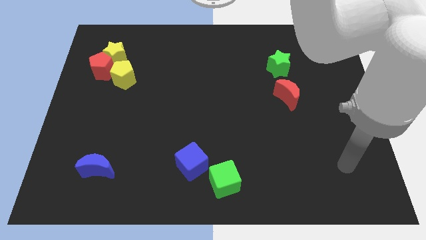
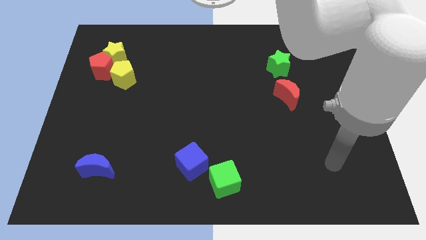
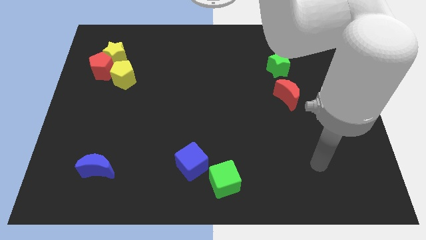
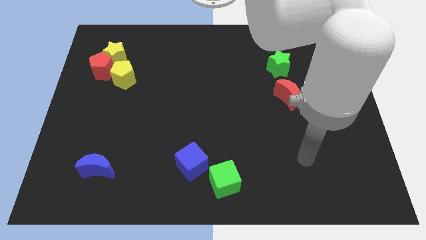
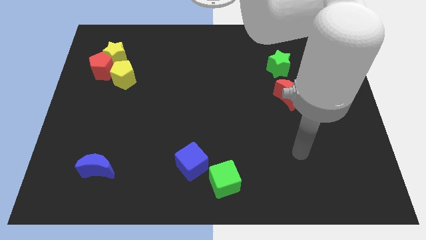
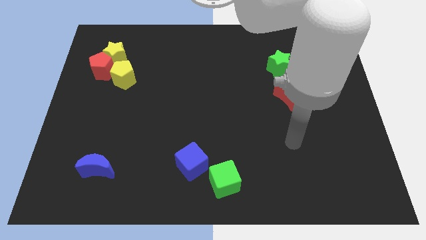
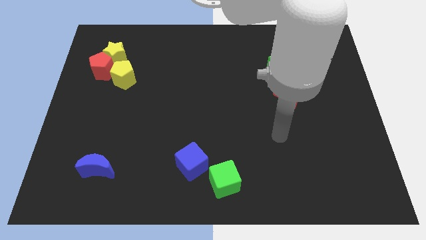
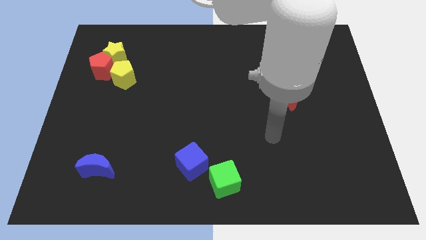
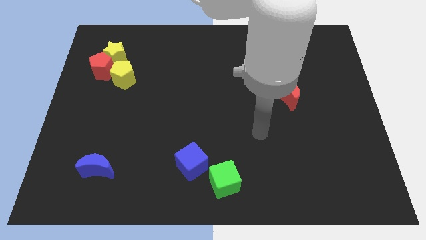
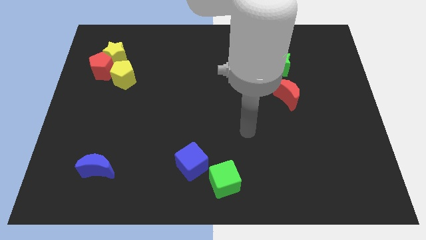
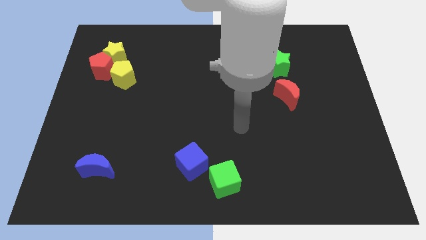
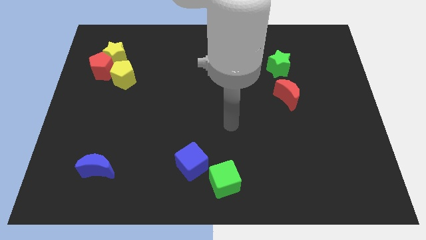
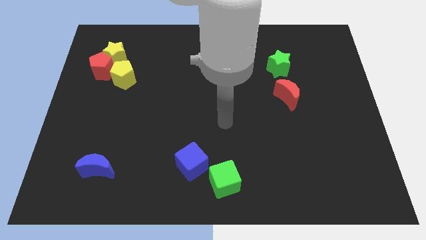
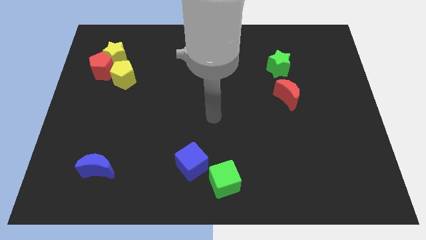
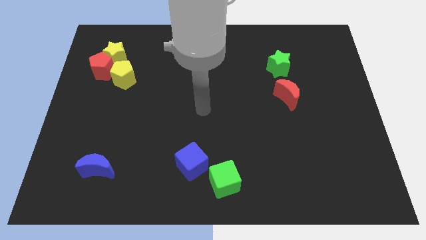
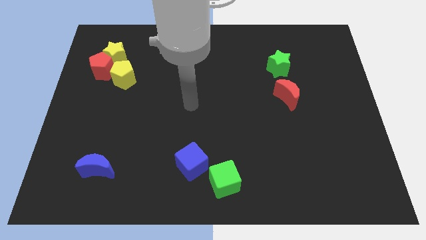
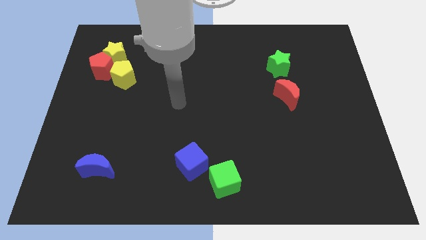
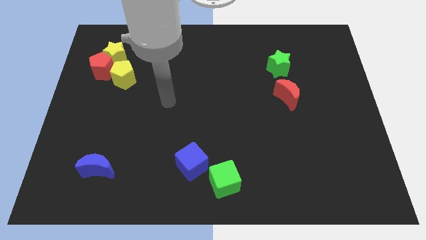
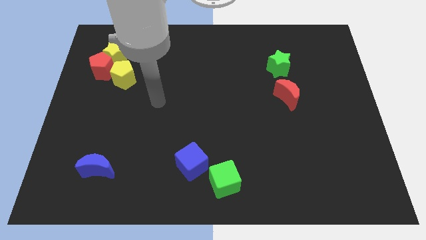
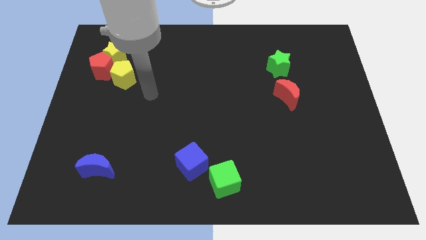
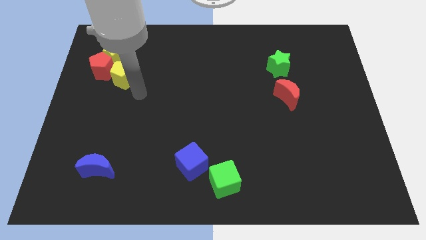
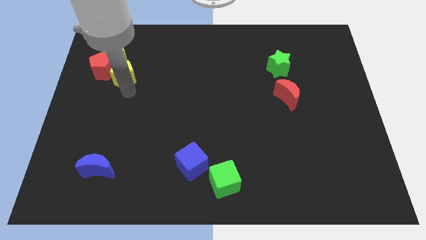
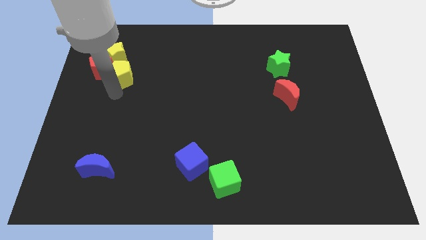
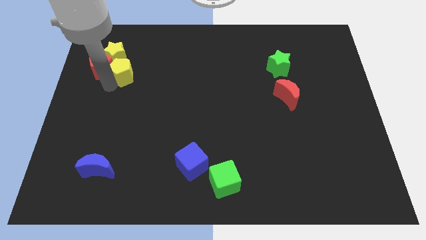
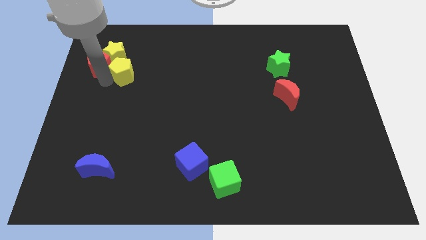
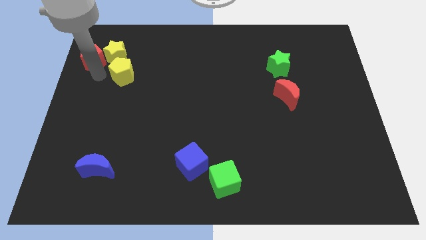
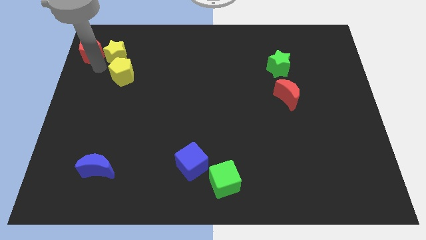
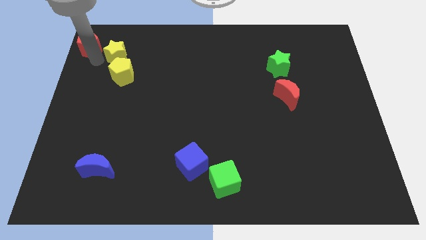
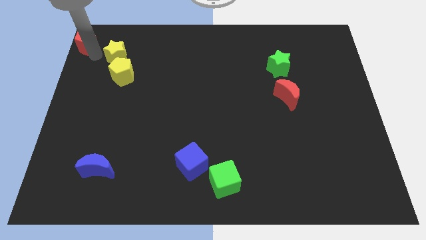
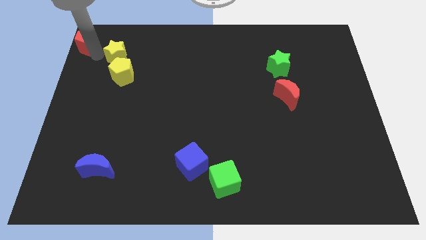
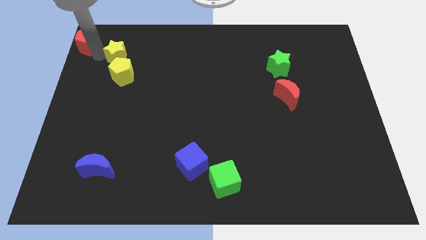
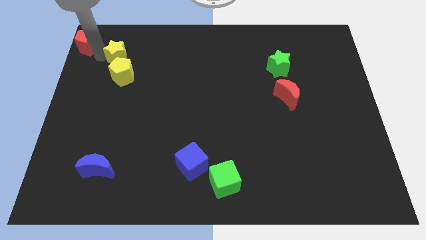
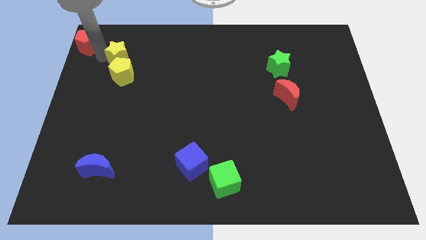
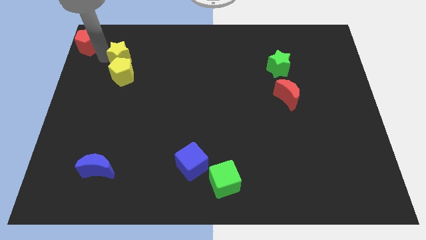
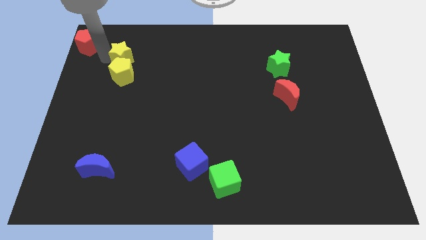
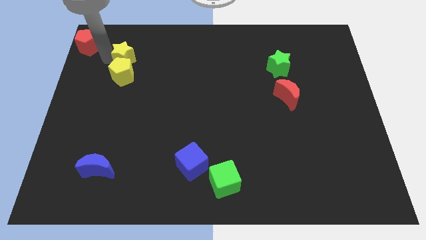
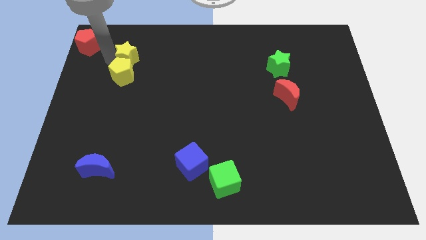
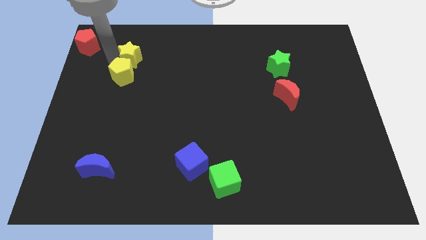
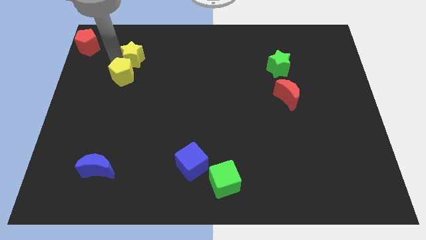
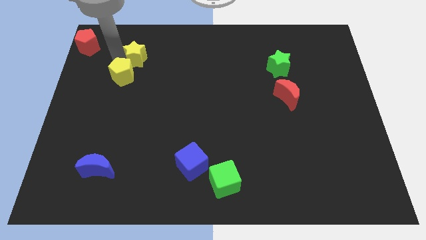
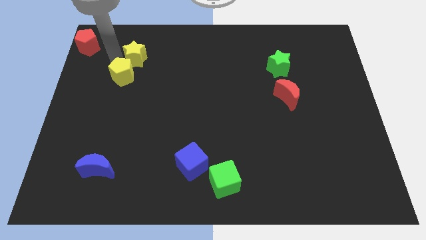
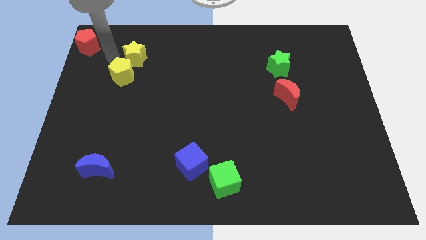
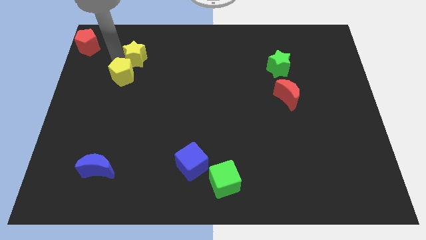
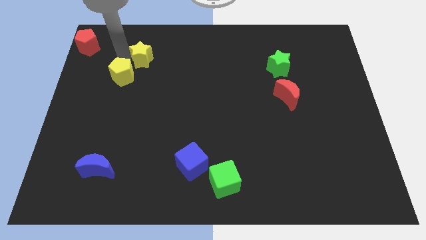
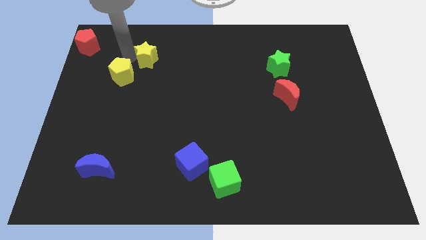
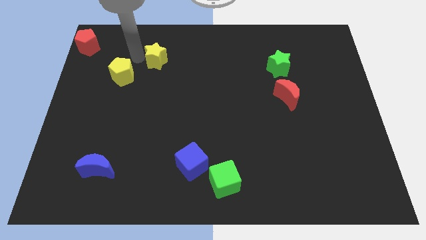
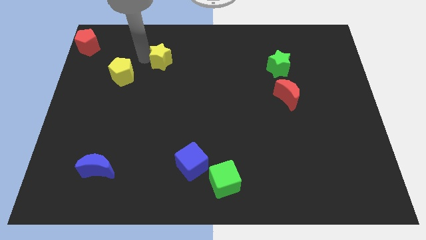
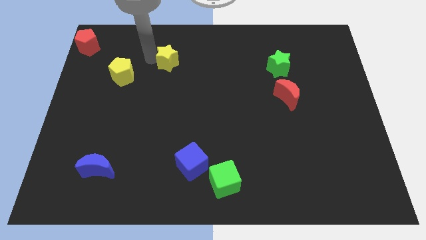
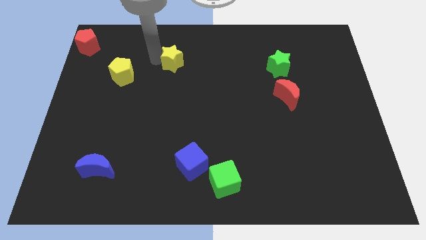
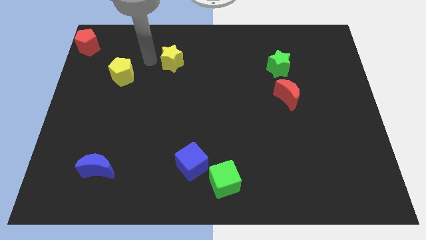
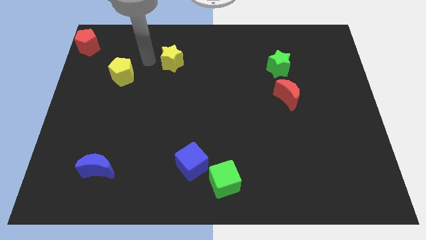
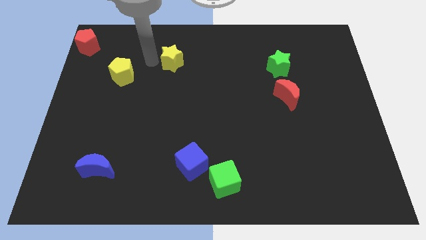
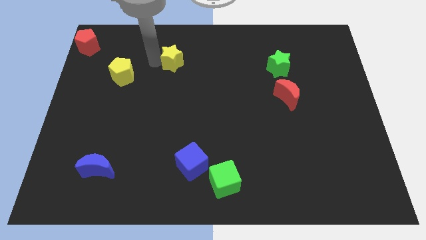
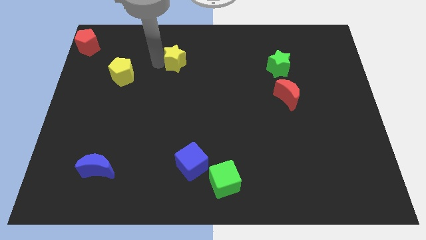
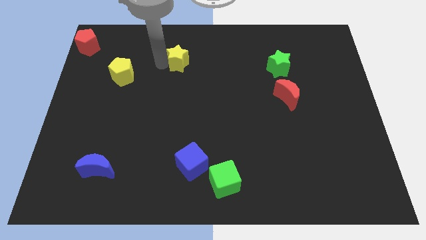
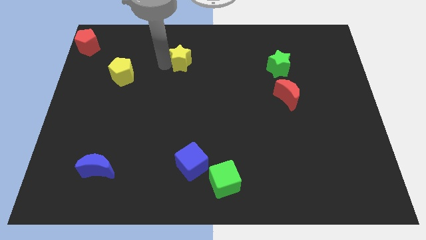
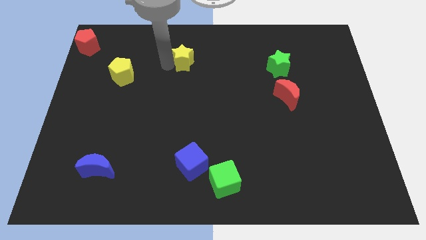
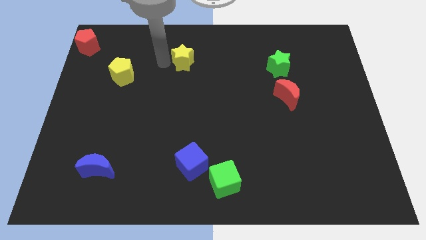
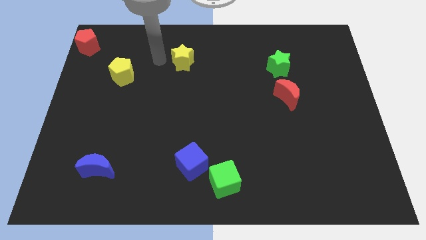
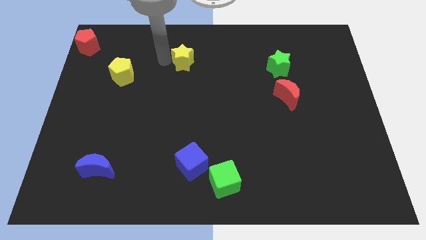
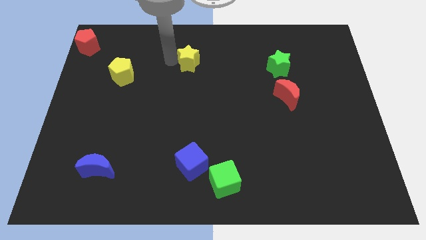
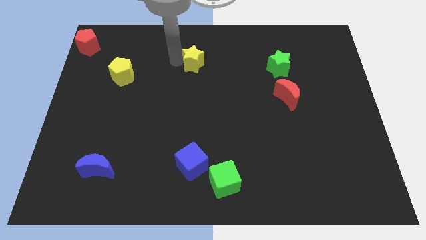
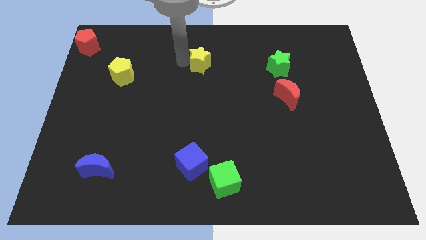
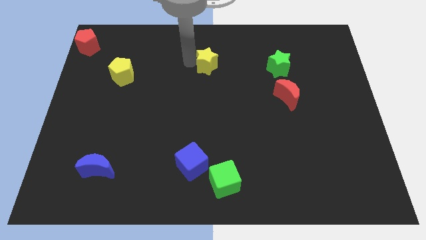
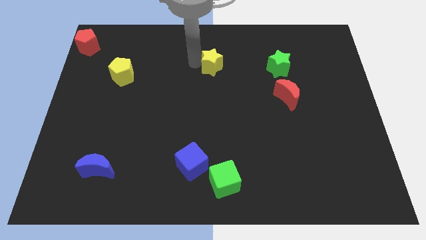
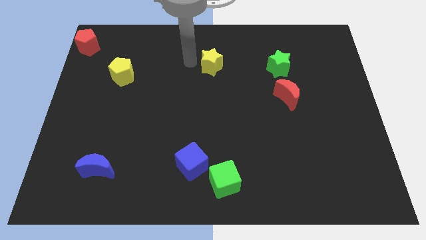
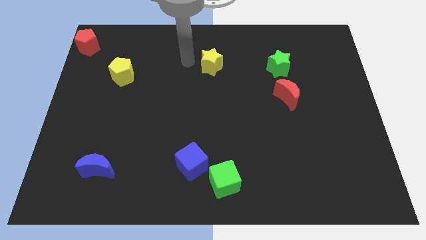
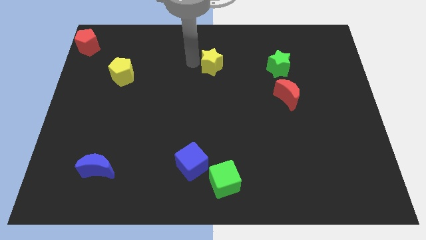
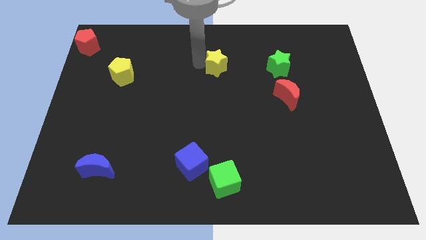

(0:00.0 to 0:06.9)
move the yellow star just left of the green star

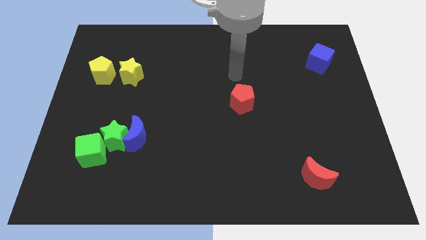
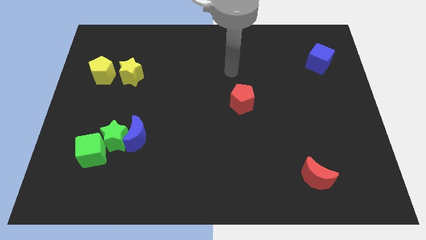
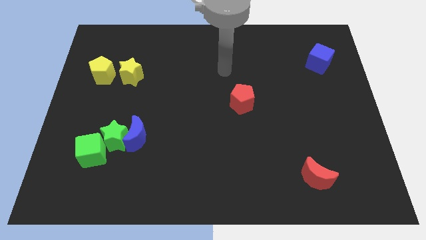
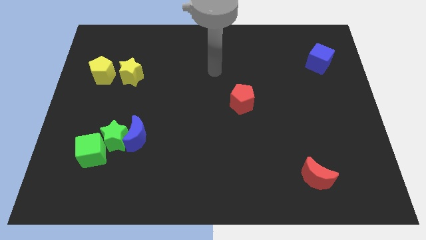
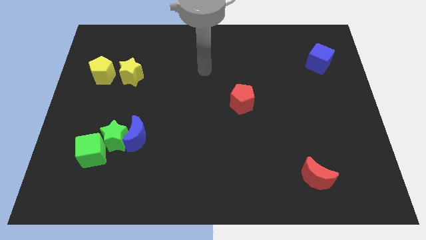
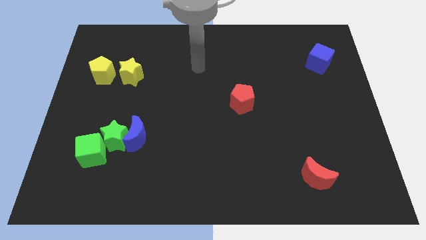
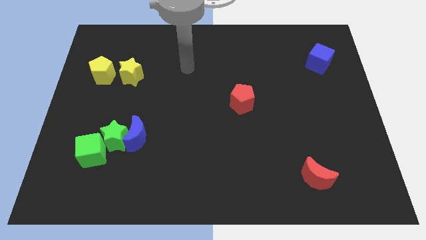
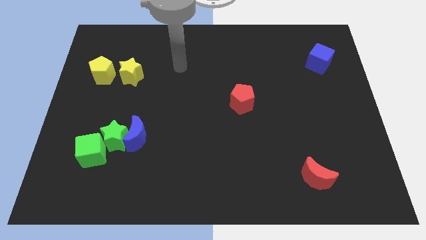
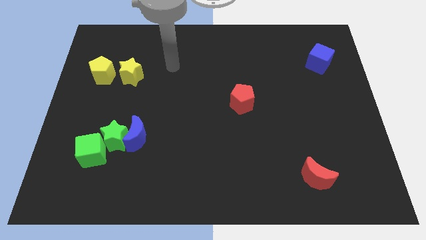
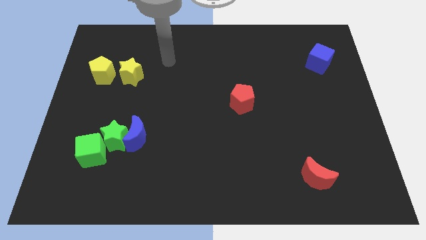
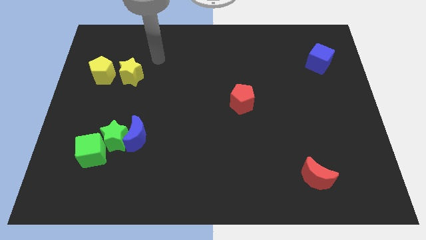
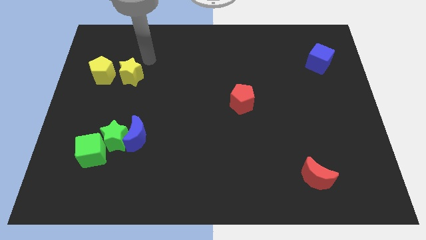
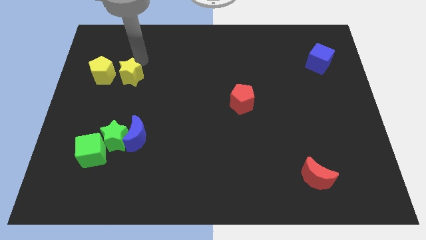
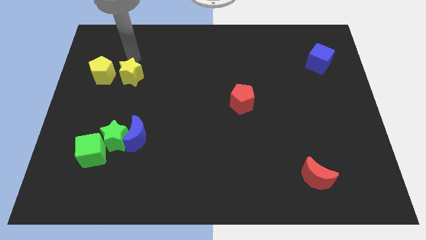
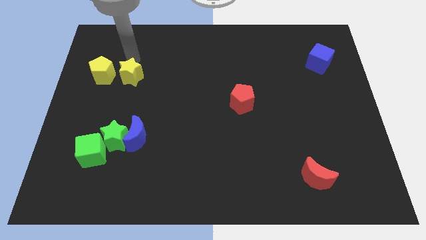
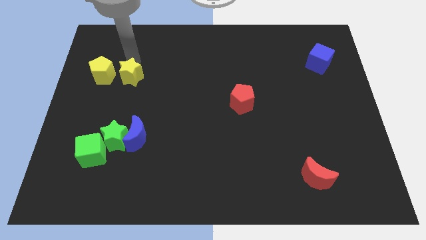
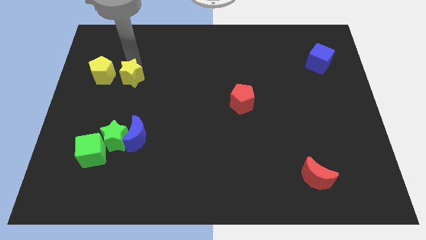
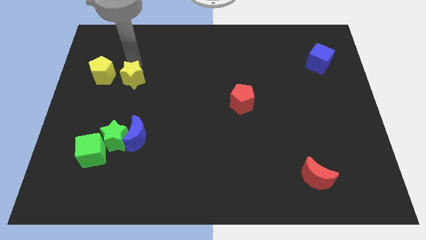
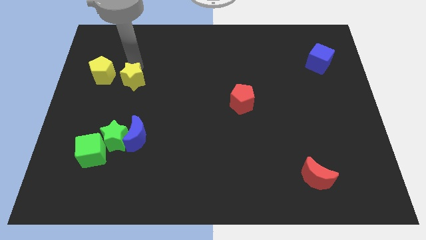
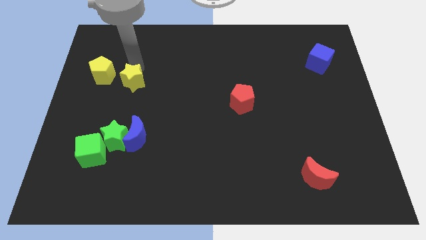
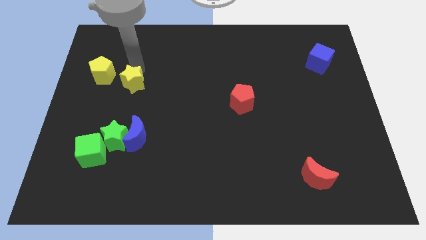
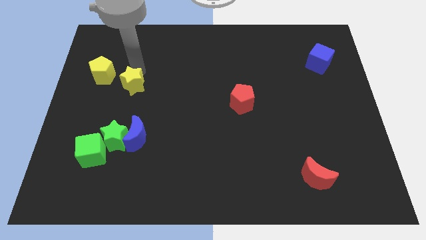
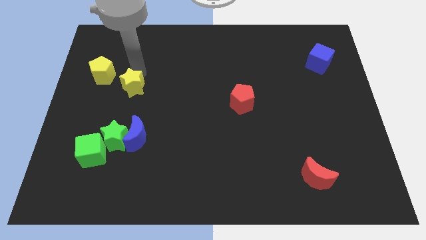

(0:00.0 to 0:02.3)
slide the yellow star above the green star
